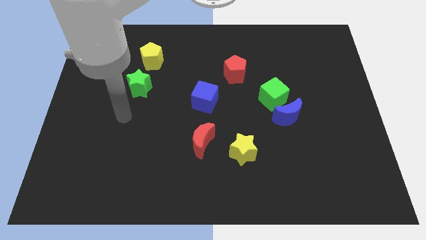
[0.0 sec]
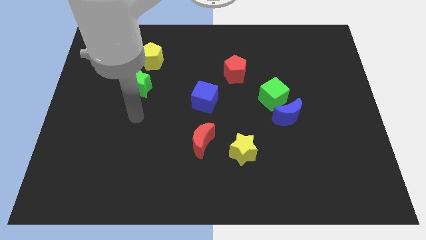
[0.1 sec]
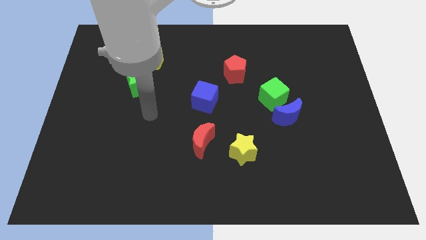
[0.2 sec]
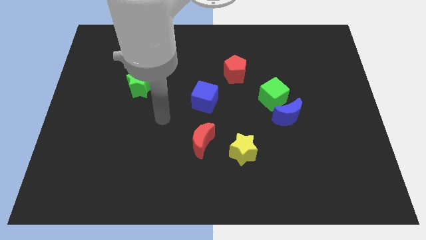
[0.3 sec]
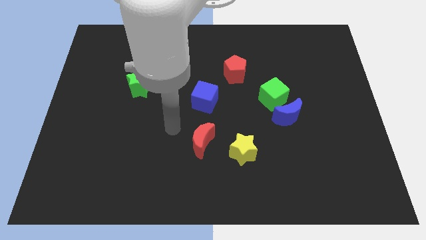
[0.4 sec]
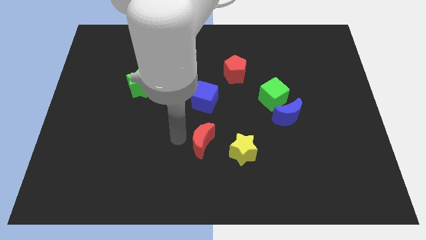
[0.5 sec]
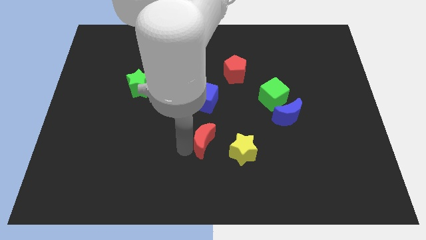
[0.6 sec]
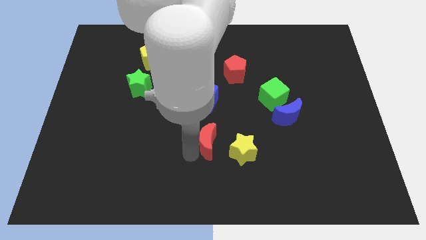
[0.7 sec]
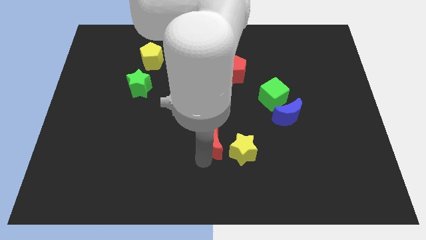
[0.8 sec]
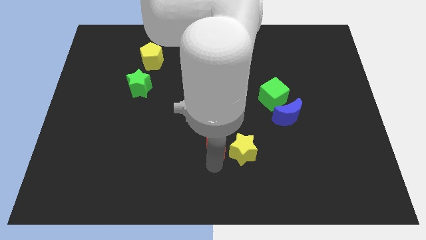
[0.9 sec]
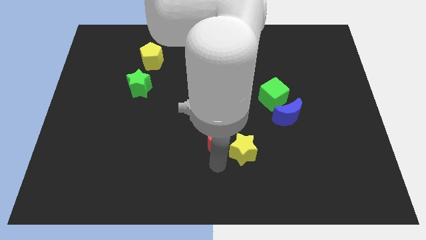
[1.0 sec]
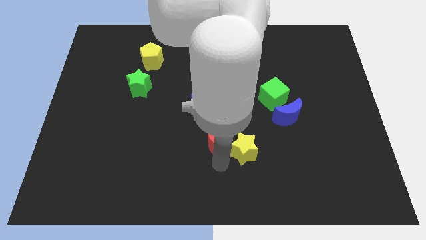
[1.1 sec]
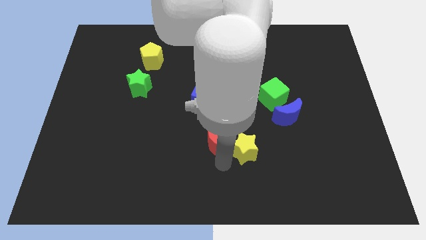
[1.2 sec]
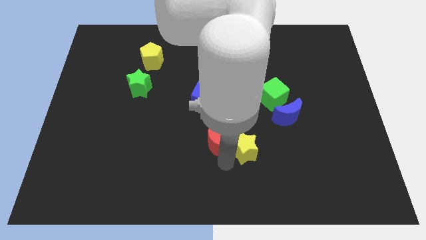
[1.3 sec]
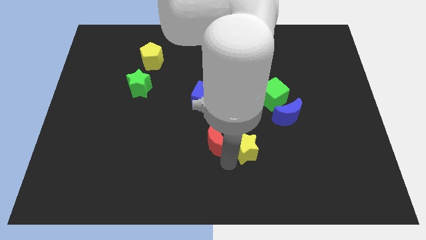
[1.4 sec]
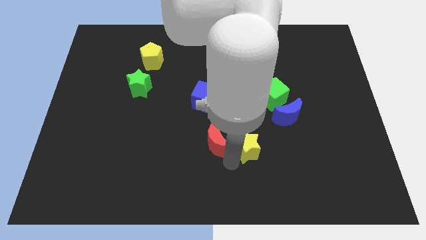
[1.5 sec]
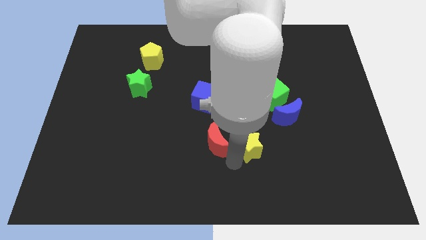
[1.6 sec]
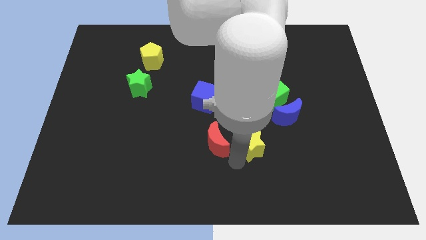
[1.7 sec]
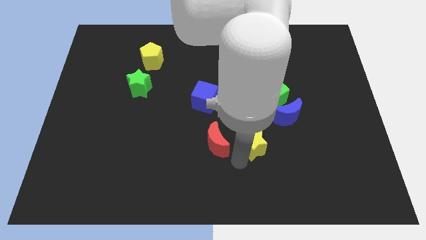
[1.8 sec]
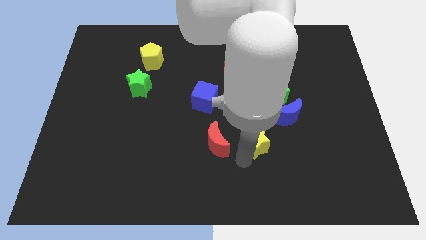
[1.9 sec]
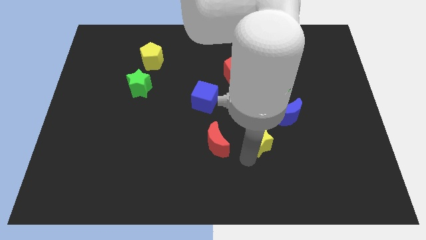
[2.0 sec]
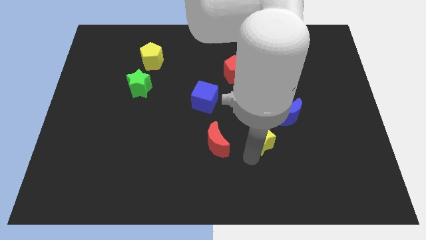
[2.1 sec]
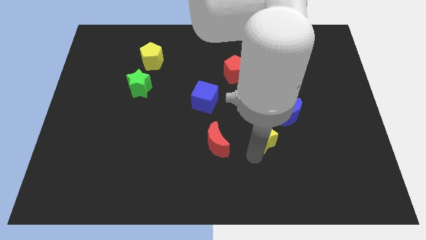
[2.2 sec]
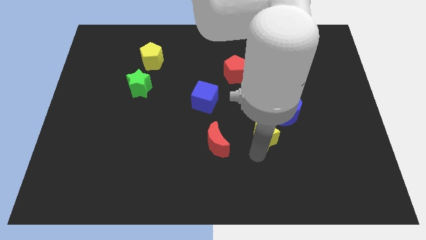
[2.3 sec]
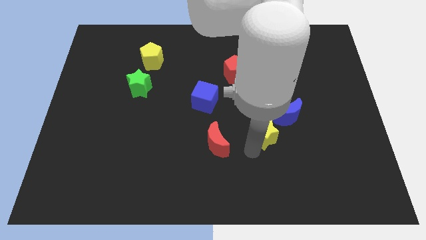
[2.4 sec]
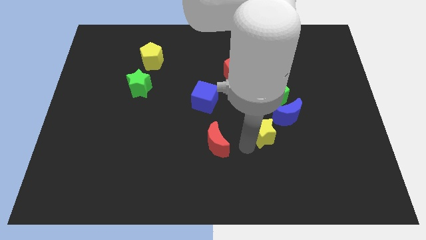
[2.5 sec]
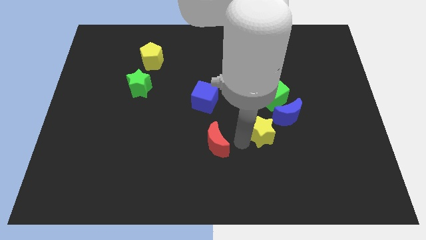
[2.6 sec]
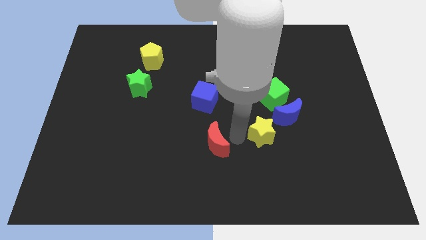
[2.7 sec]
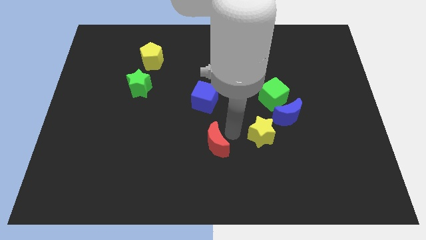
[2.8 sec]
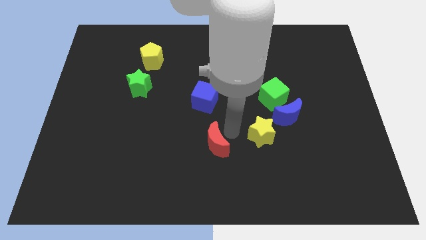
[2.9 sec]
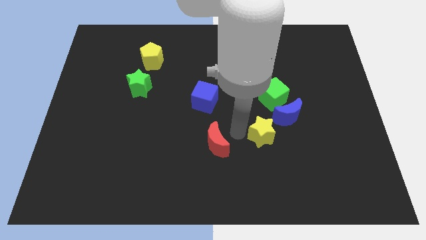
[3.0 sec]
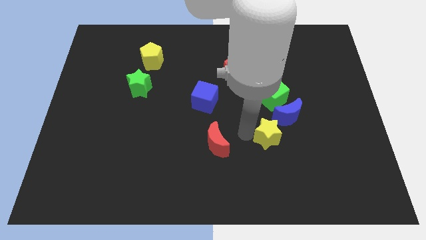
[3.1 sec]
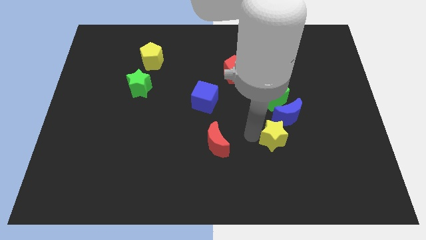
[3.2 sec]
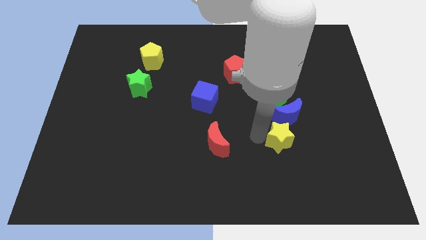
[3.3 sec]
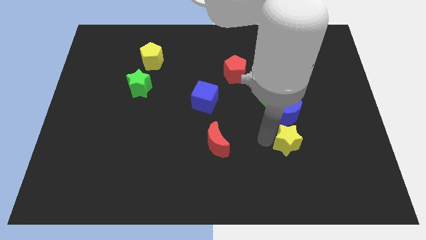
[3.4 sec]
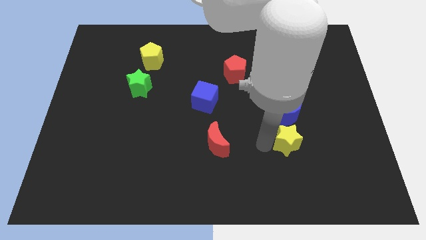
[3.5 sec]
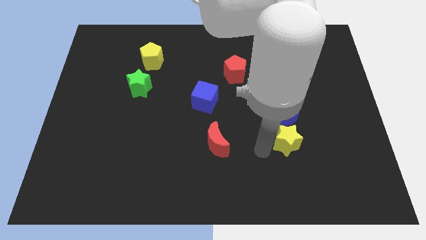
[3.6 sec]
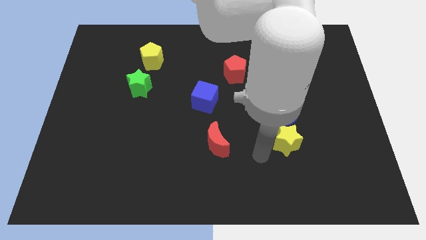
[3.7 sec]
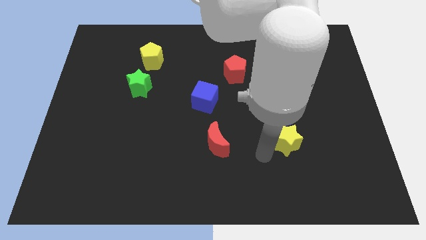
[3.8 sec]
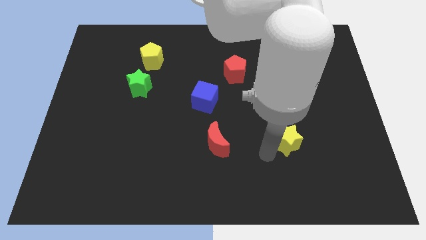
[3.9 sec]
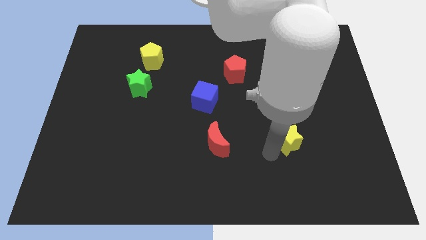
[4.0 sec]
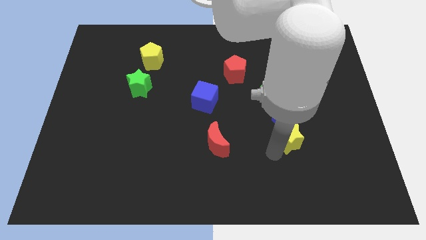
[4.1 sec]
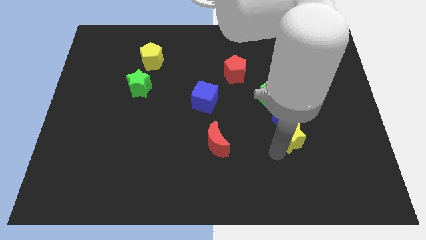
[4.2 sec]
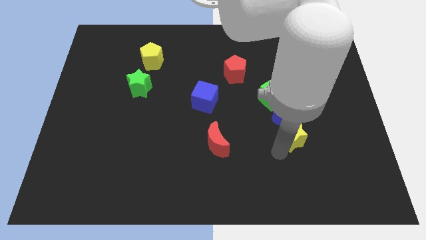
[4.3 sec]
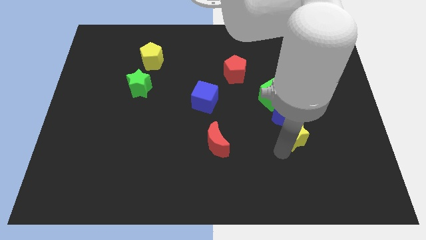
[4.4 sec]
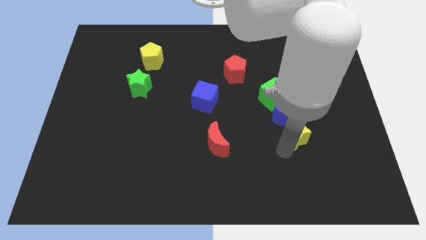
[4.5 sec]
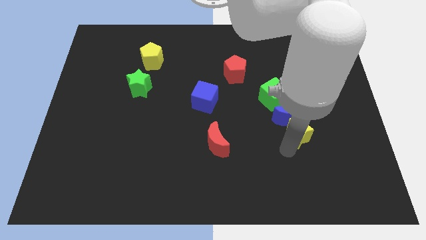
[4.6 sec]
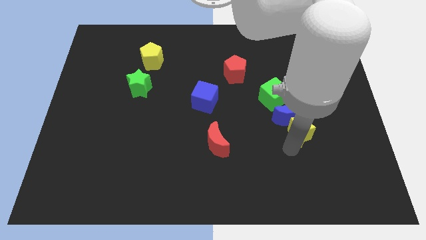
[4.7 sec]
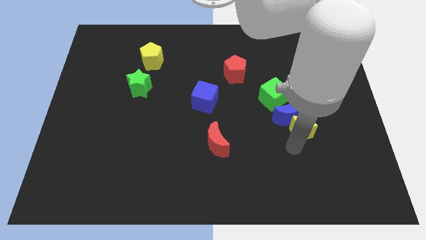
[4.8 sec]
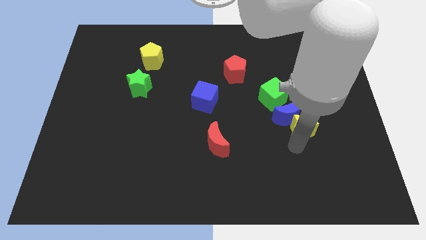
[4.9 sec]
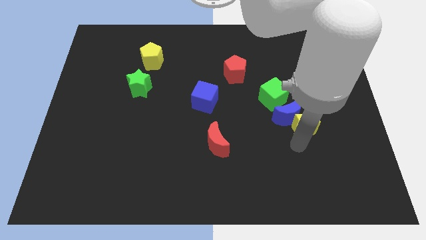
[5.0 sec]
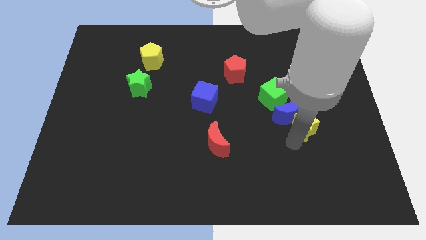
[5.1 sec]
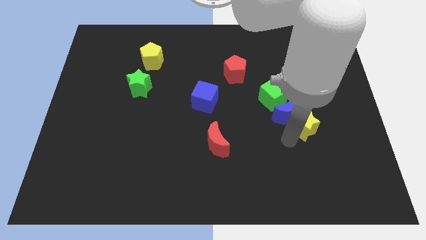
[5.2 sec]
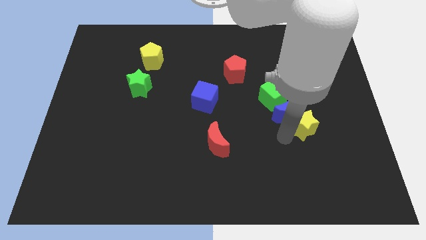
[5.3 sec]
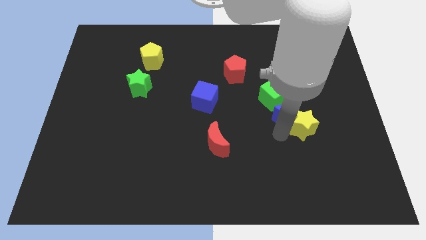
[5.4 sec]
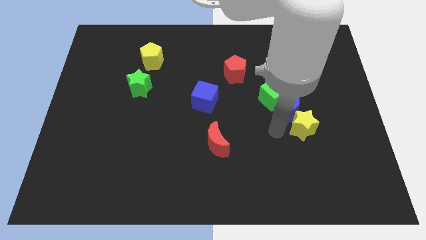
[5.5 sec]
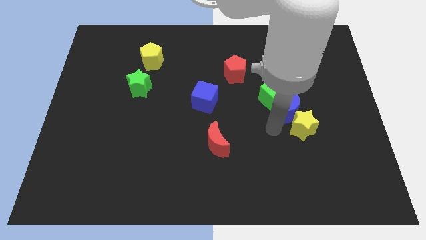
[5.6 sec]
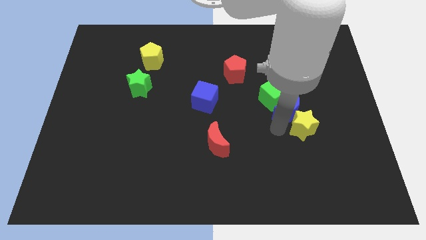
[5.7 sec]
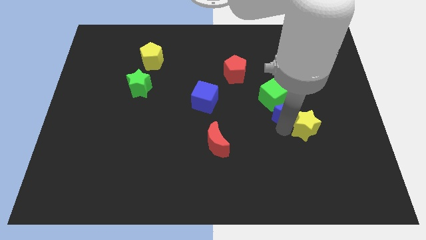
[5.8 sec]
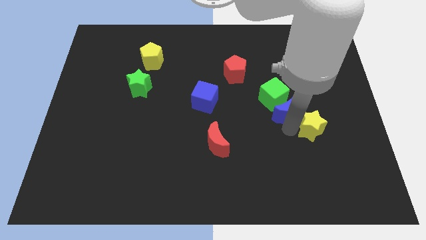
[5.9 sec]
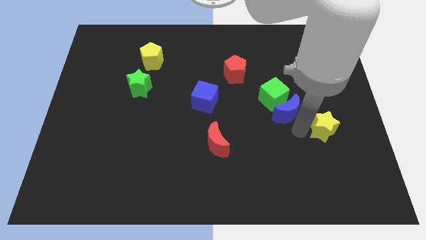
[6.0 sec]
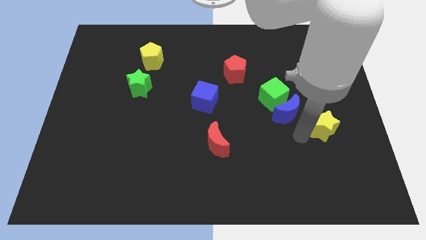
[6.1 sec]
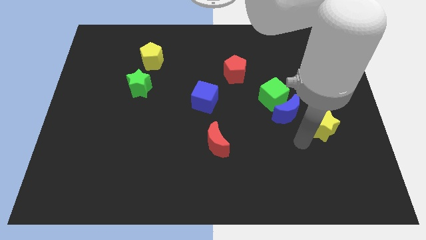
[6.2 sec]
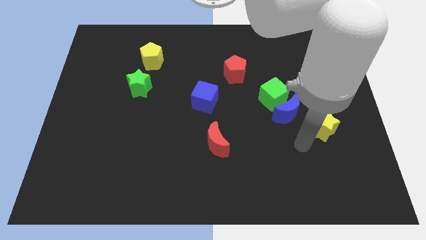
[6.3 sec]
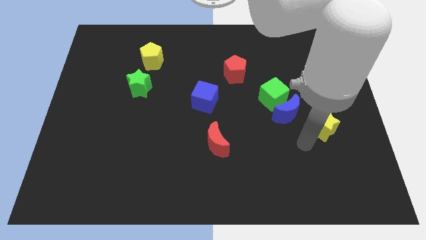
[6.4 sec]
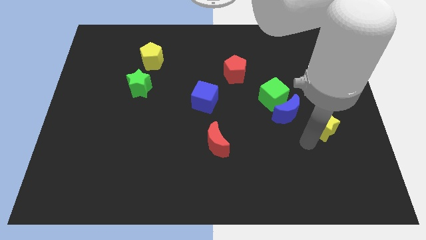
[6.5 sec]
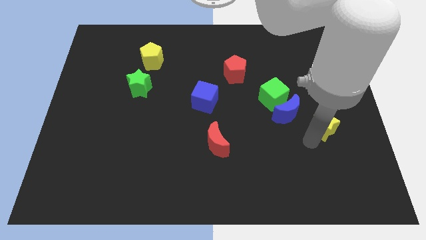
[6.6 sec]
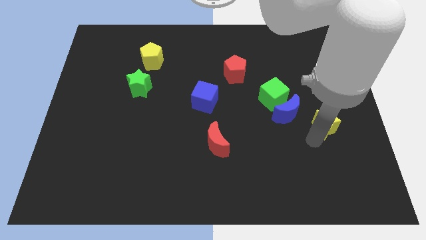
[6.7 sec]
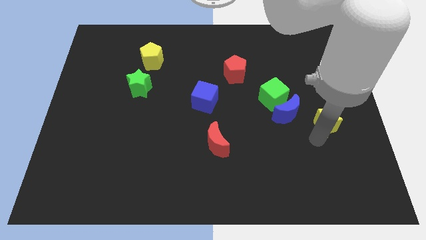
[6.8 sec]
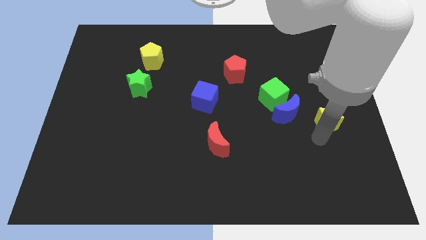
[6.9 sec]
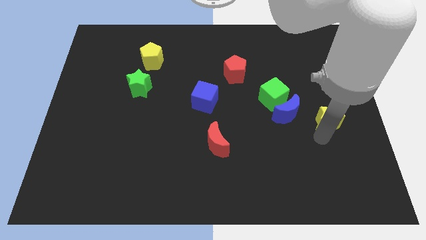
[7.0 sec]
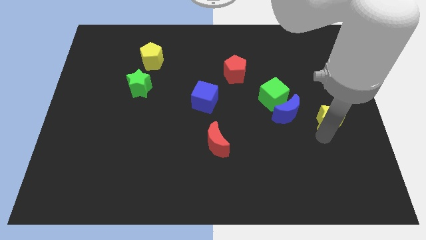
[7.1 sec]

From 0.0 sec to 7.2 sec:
move the yellow star to the right side of the board
